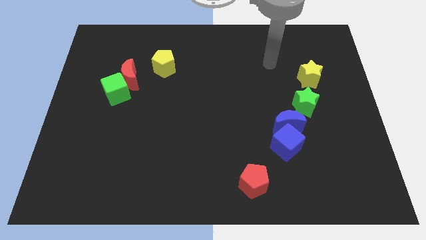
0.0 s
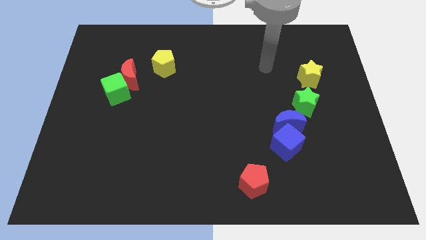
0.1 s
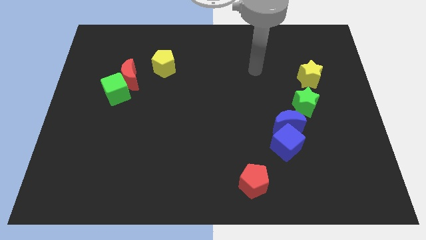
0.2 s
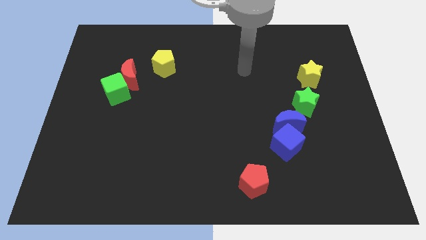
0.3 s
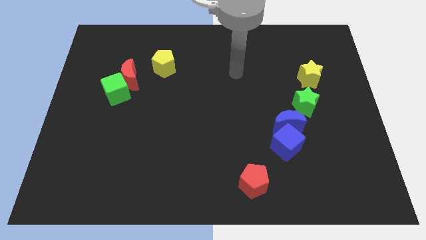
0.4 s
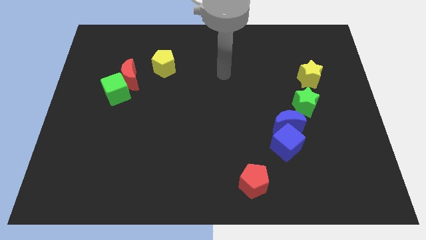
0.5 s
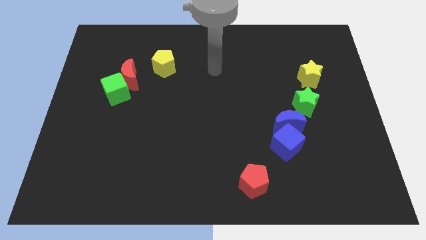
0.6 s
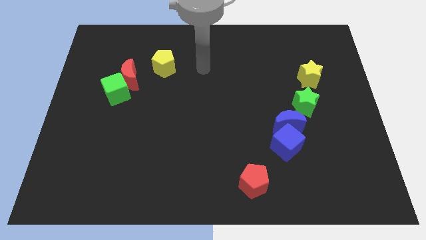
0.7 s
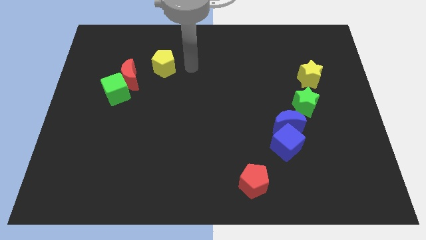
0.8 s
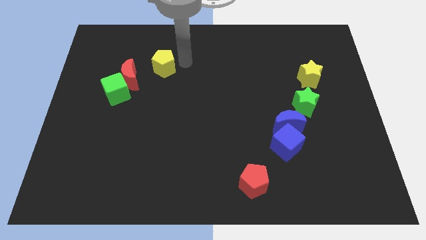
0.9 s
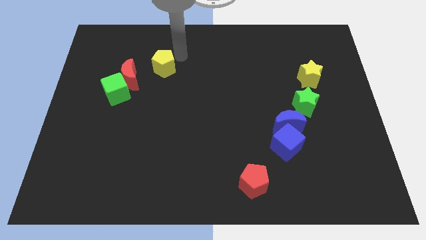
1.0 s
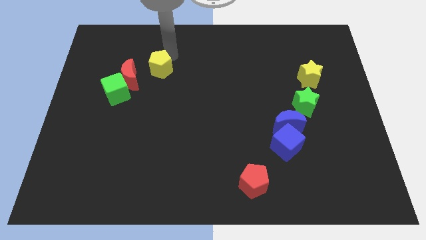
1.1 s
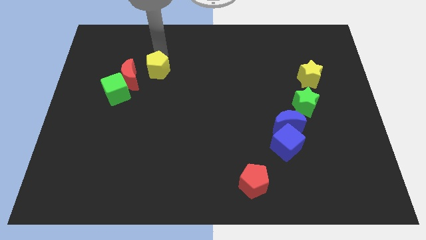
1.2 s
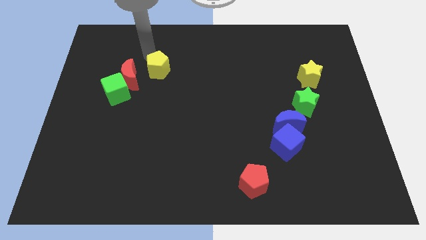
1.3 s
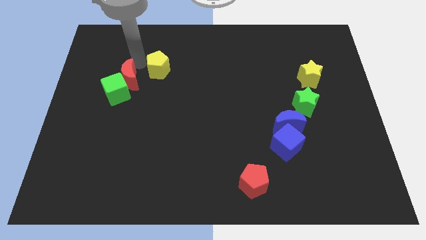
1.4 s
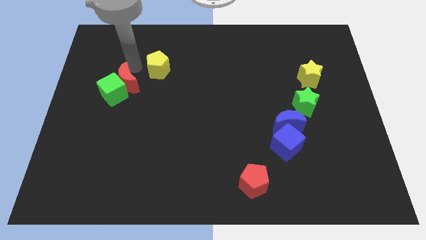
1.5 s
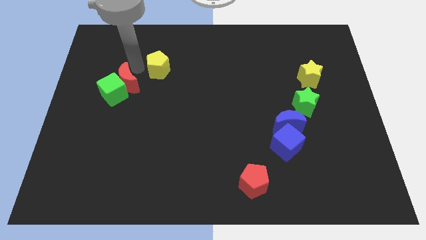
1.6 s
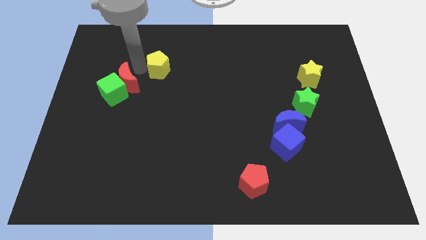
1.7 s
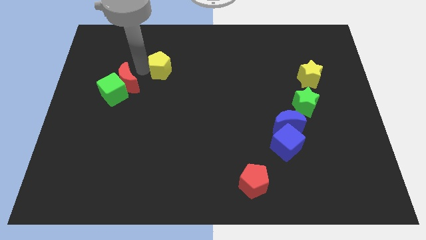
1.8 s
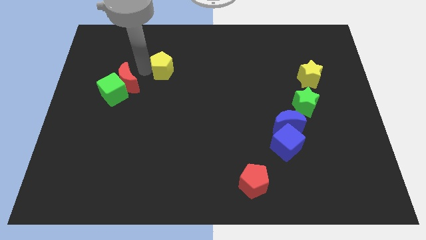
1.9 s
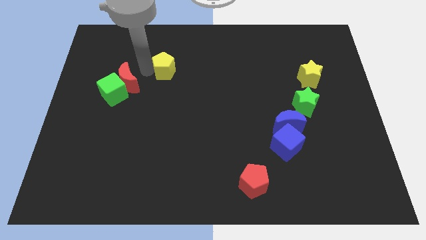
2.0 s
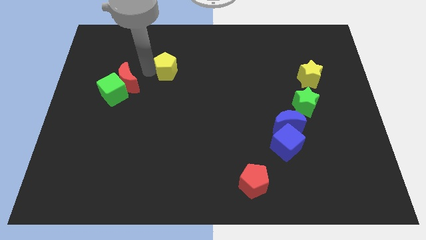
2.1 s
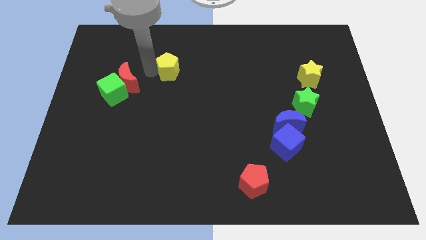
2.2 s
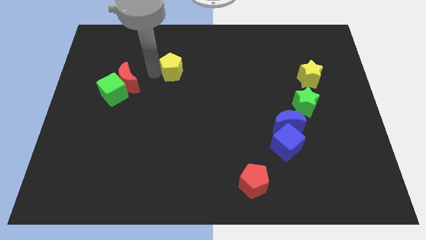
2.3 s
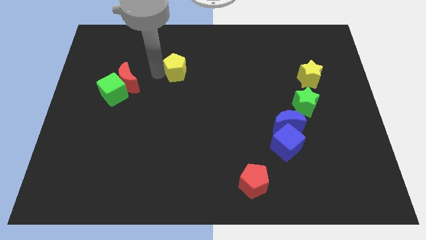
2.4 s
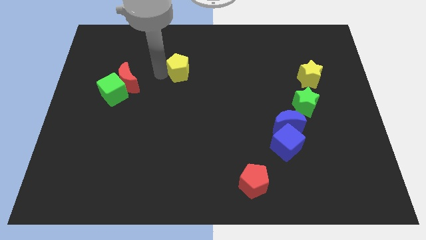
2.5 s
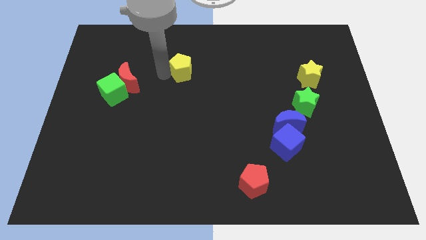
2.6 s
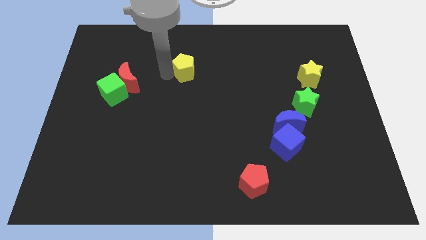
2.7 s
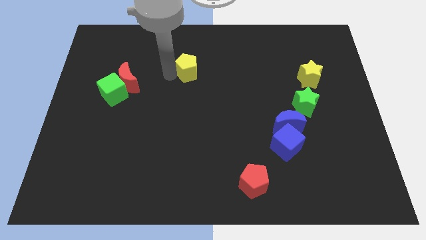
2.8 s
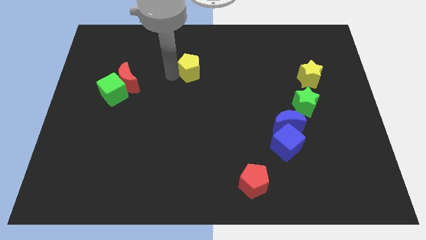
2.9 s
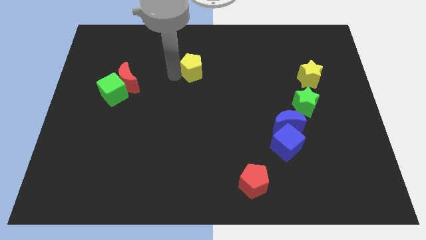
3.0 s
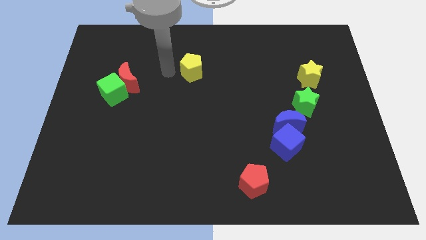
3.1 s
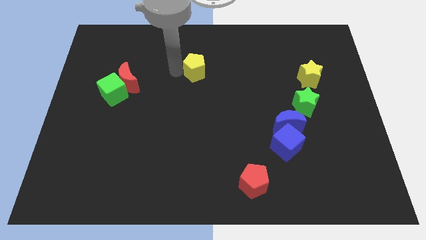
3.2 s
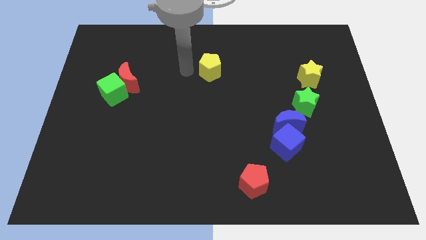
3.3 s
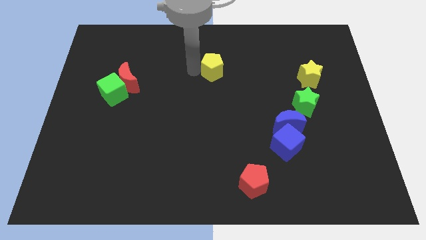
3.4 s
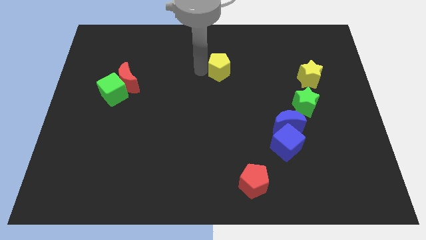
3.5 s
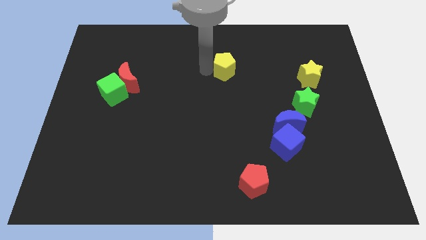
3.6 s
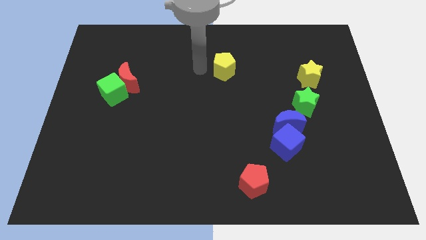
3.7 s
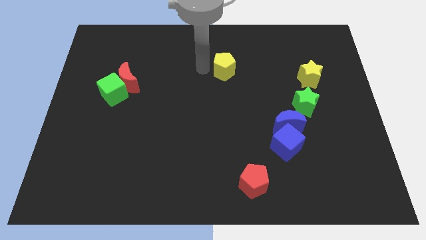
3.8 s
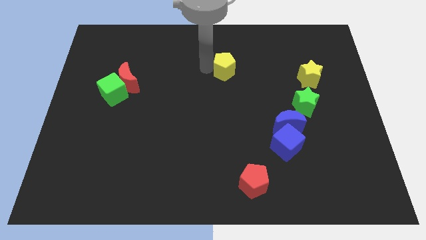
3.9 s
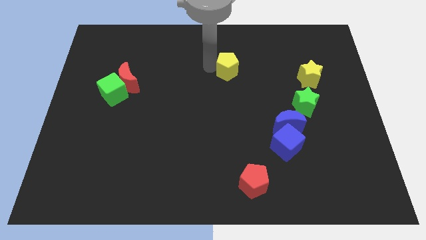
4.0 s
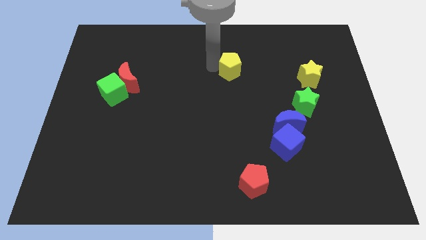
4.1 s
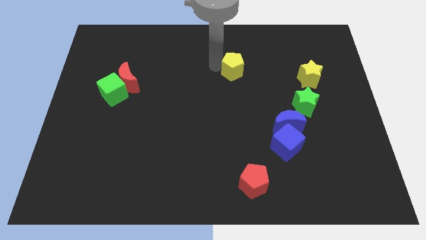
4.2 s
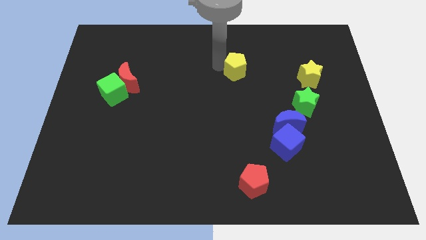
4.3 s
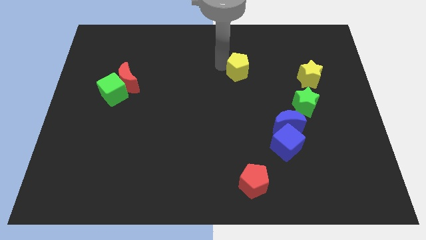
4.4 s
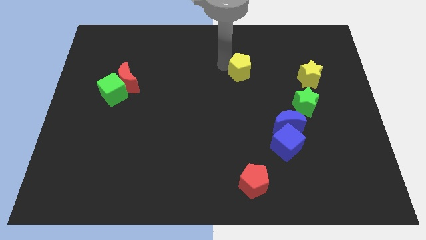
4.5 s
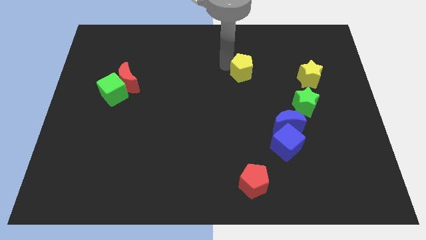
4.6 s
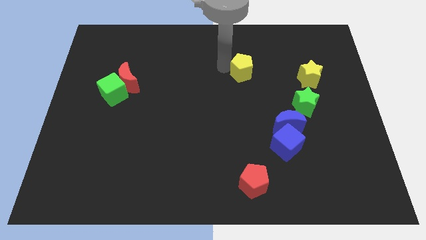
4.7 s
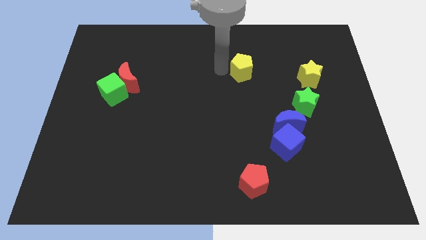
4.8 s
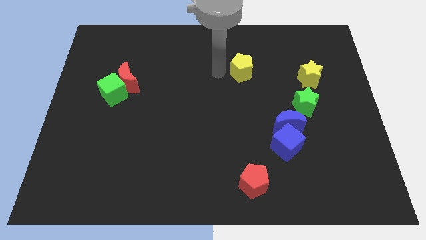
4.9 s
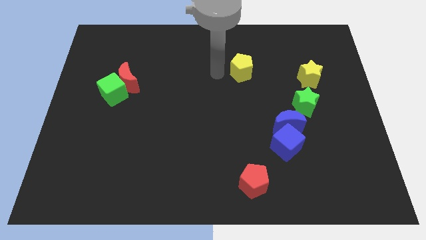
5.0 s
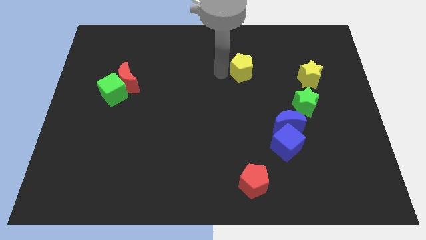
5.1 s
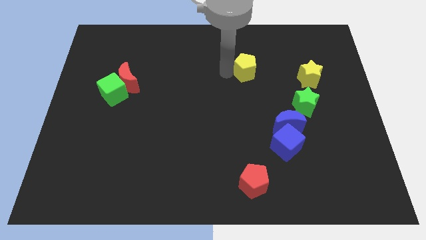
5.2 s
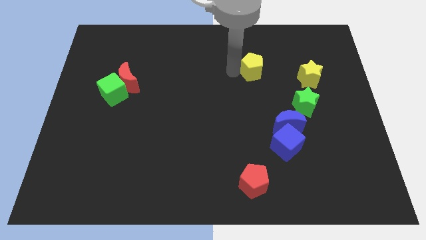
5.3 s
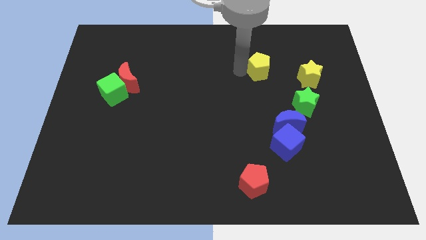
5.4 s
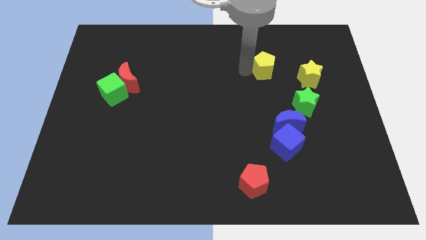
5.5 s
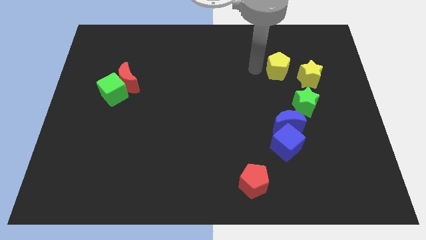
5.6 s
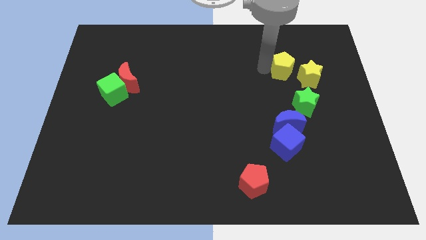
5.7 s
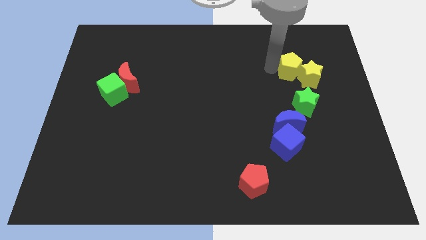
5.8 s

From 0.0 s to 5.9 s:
push the yellow pentagon to the yellow star

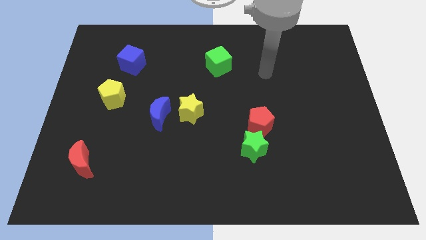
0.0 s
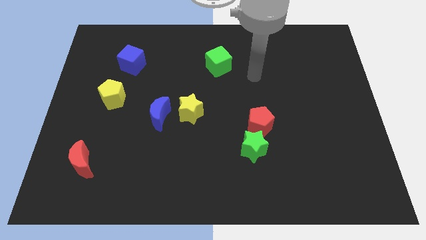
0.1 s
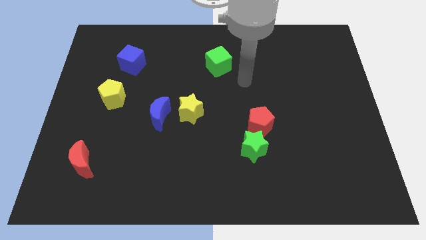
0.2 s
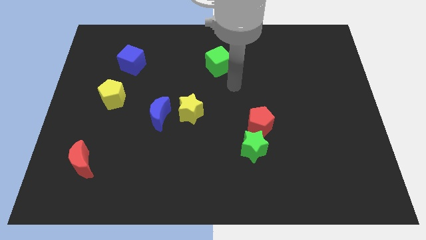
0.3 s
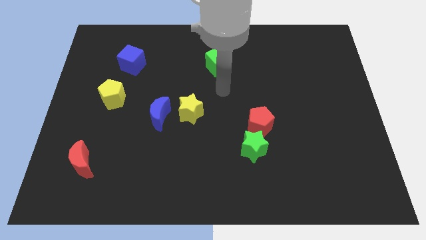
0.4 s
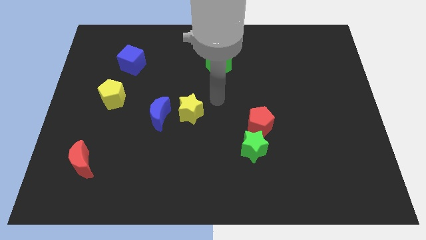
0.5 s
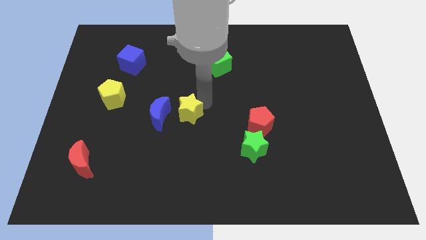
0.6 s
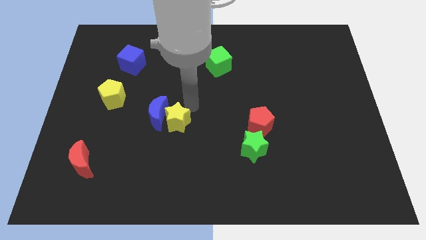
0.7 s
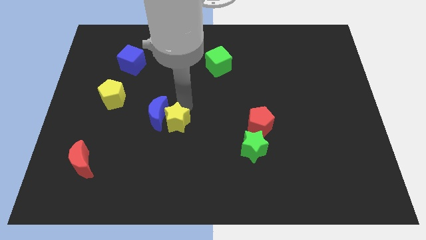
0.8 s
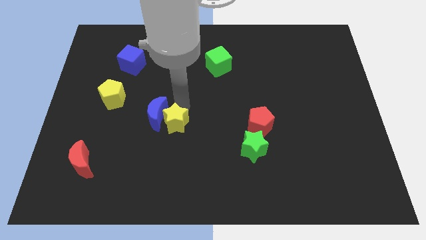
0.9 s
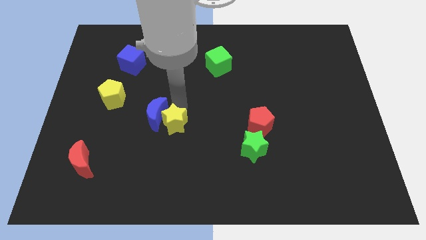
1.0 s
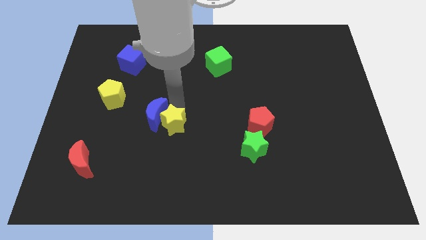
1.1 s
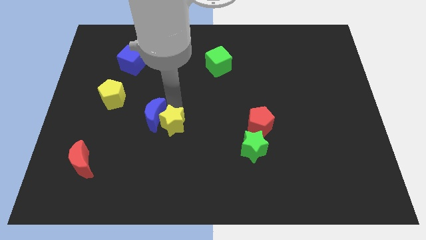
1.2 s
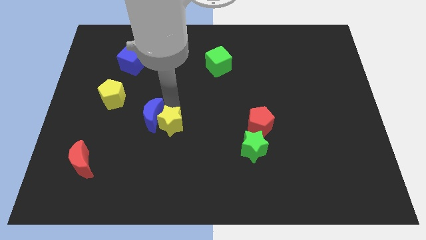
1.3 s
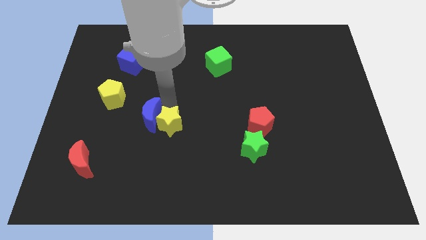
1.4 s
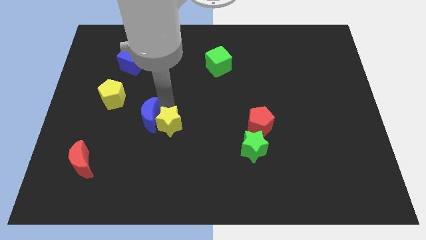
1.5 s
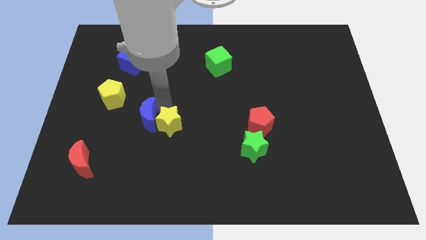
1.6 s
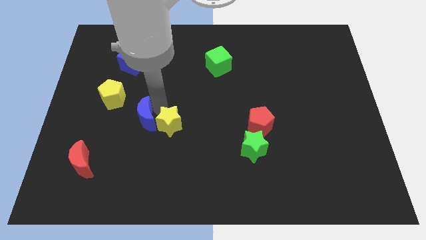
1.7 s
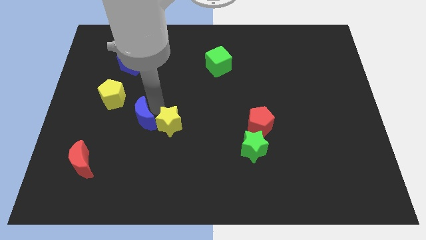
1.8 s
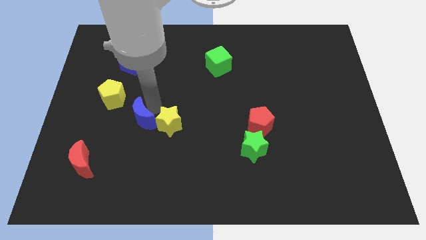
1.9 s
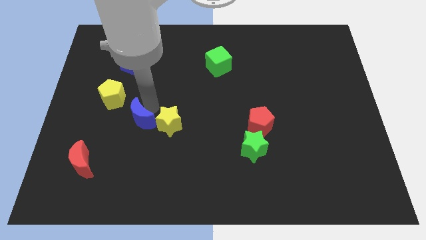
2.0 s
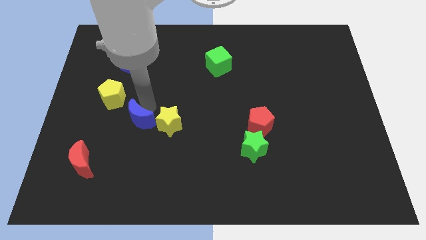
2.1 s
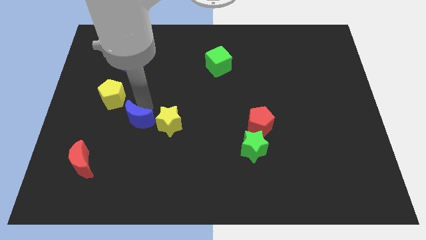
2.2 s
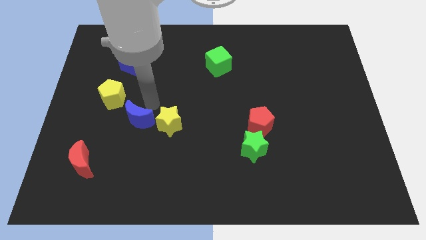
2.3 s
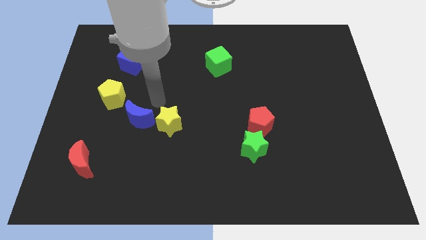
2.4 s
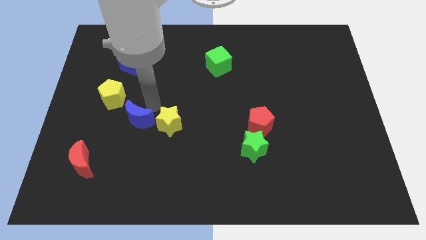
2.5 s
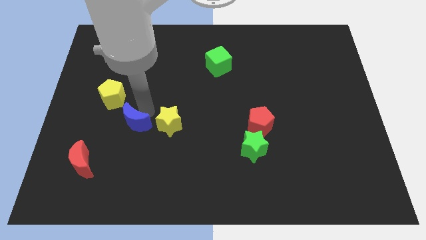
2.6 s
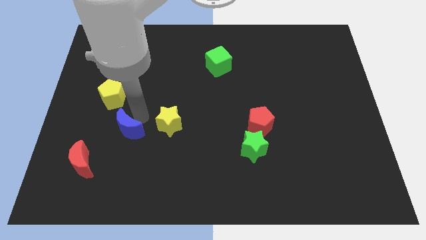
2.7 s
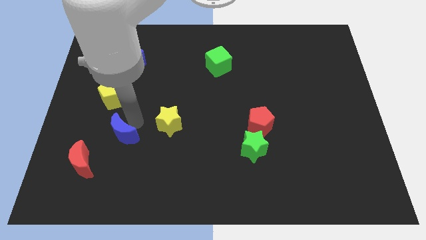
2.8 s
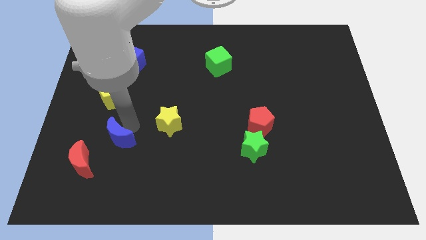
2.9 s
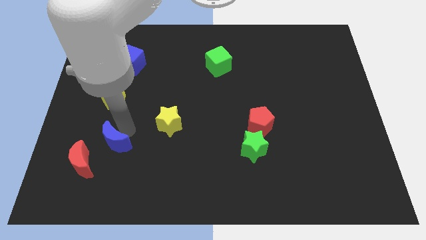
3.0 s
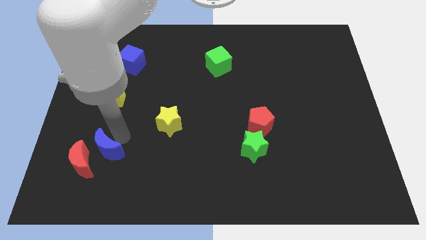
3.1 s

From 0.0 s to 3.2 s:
slide the blue moon towards the red moon
